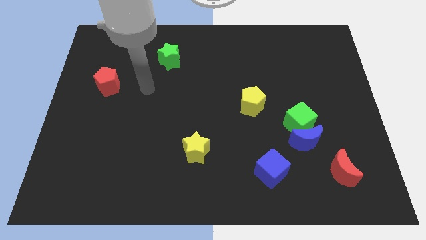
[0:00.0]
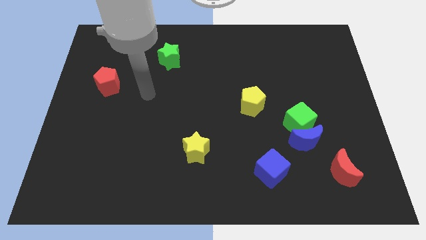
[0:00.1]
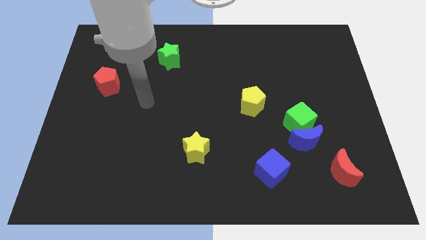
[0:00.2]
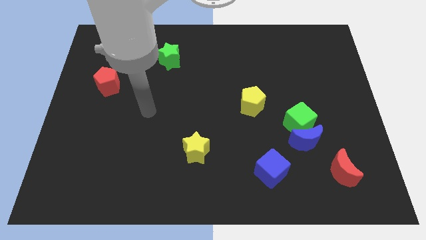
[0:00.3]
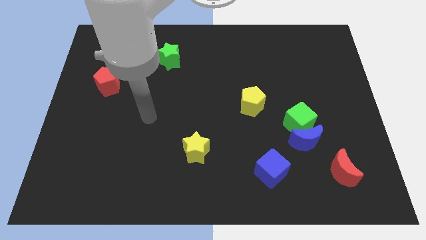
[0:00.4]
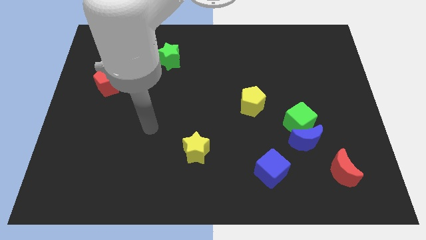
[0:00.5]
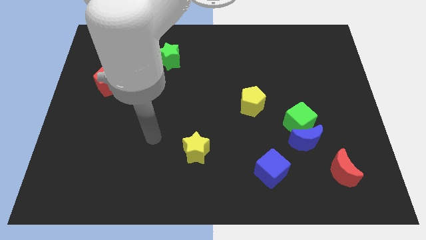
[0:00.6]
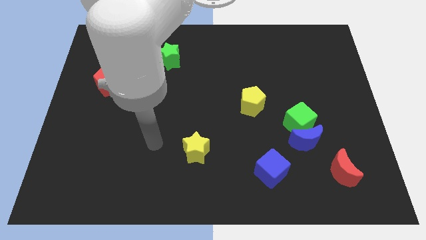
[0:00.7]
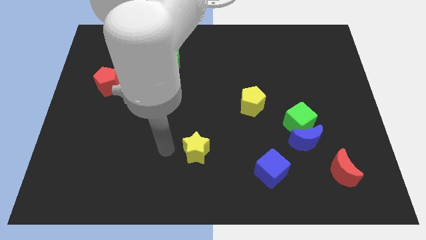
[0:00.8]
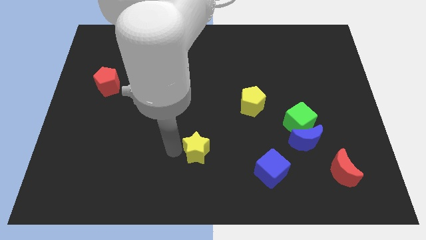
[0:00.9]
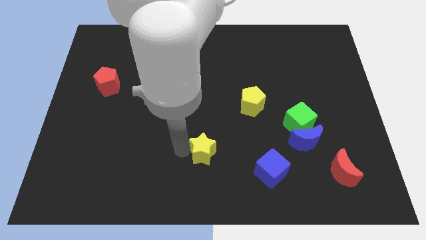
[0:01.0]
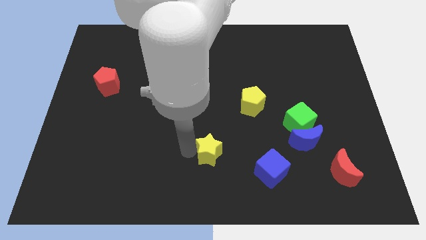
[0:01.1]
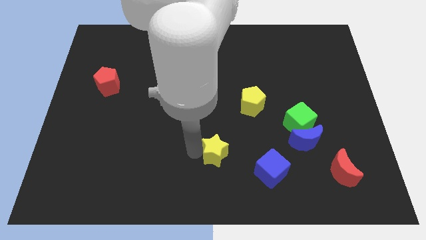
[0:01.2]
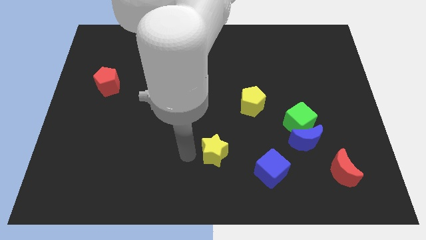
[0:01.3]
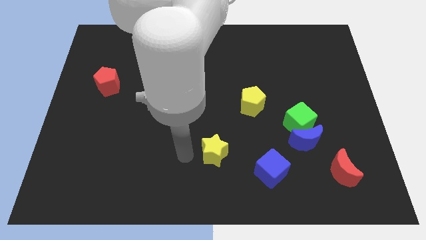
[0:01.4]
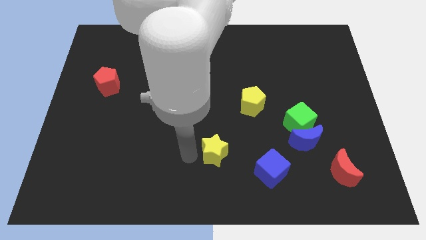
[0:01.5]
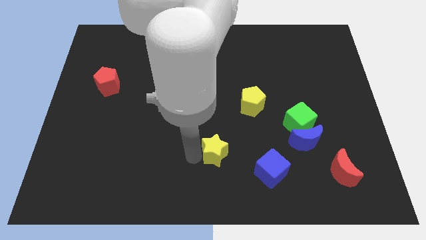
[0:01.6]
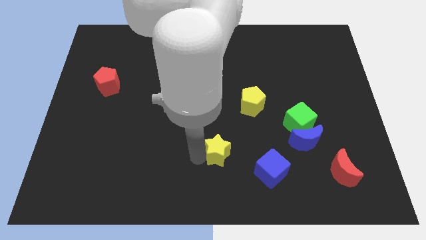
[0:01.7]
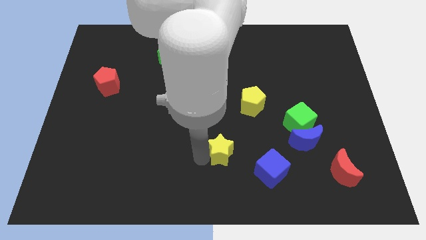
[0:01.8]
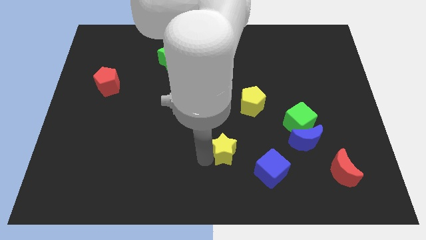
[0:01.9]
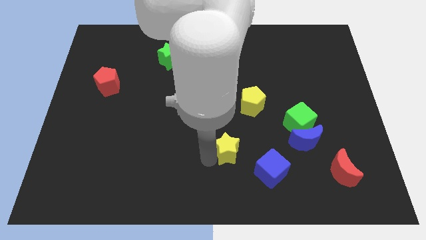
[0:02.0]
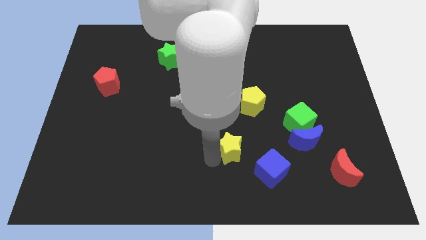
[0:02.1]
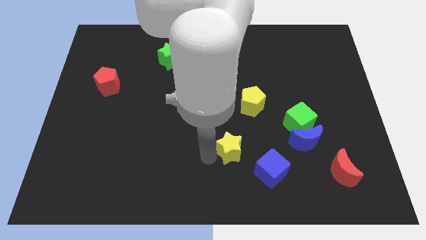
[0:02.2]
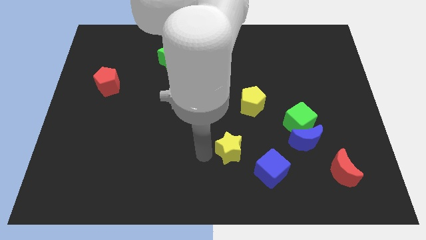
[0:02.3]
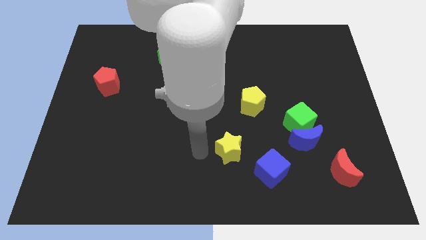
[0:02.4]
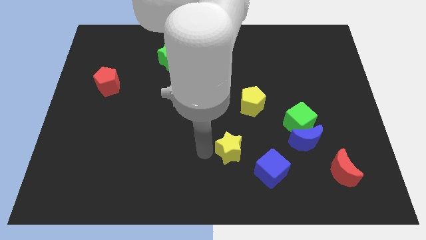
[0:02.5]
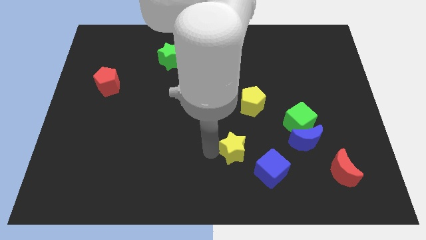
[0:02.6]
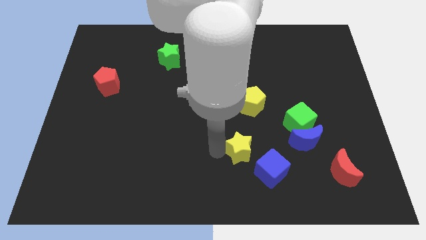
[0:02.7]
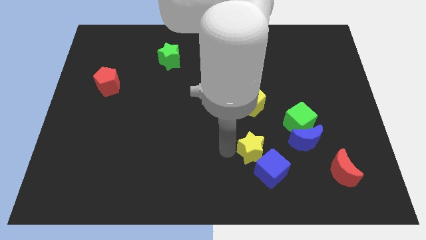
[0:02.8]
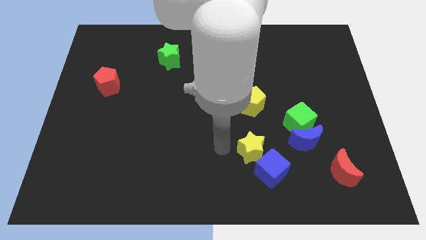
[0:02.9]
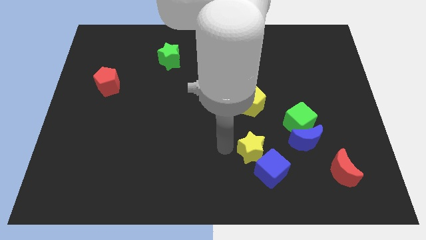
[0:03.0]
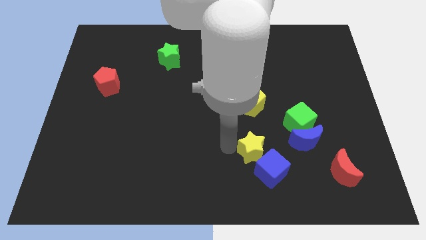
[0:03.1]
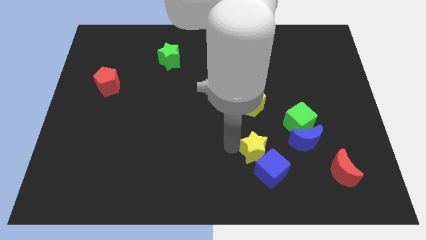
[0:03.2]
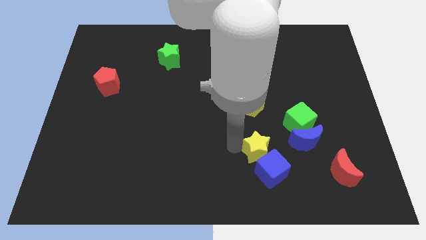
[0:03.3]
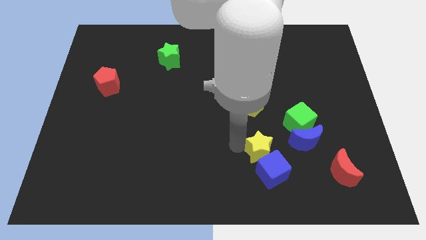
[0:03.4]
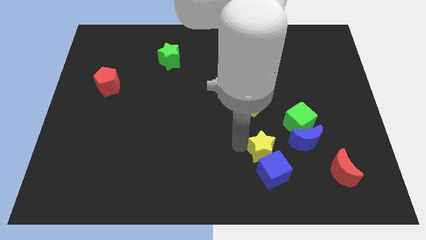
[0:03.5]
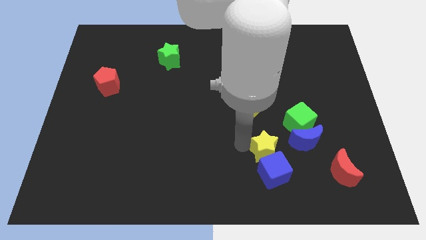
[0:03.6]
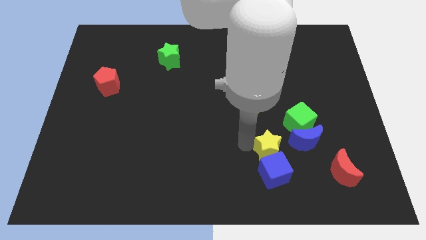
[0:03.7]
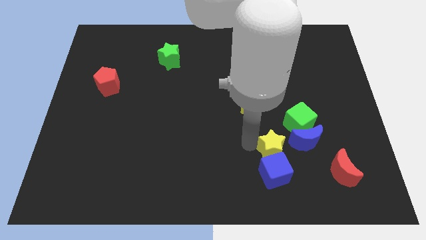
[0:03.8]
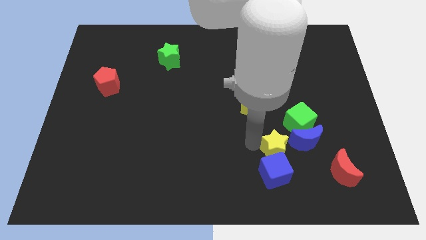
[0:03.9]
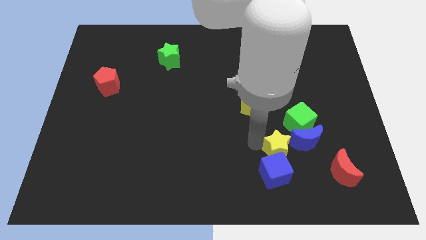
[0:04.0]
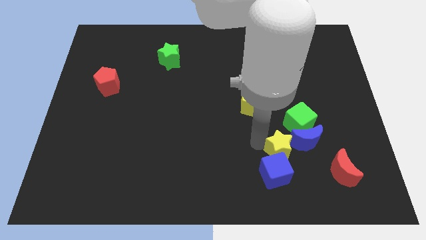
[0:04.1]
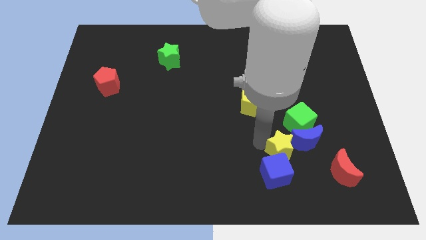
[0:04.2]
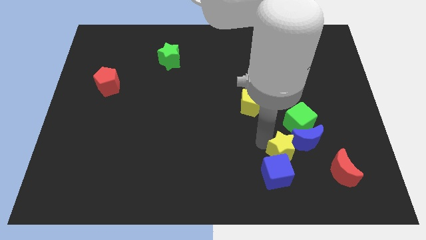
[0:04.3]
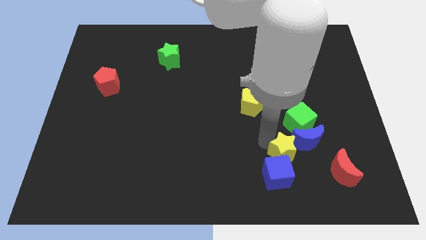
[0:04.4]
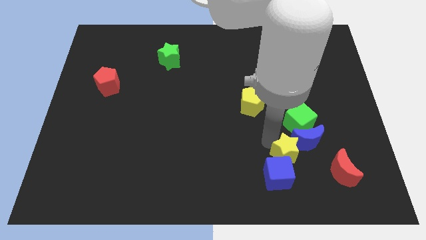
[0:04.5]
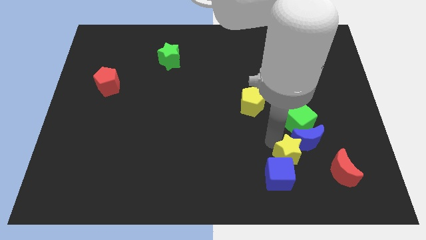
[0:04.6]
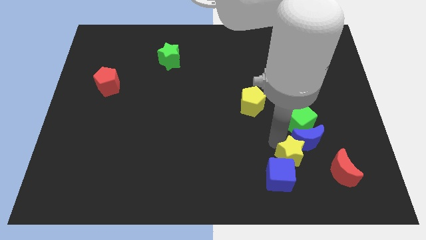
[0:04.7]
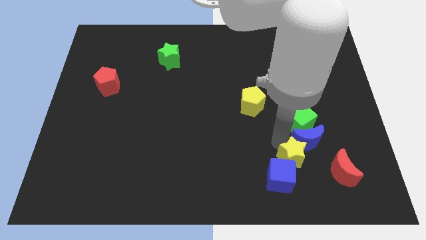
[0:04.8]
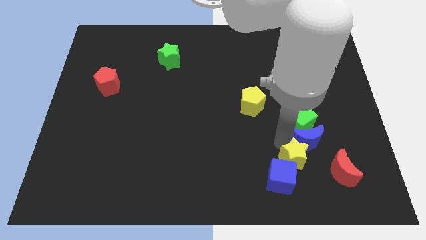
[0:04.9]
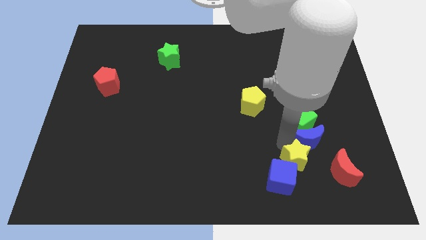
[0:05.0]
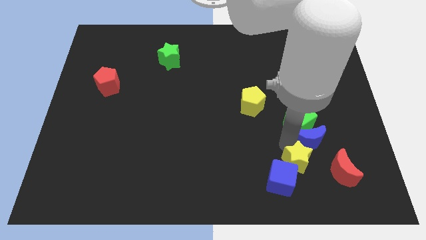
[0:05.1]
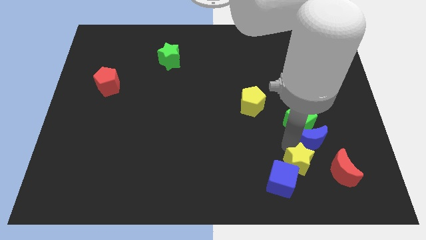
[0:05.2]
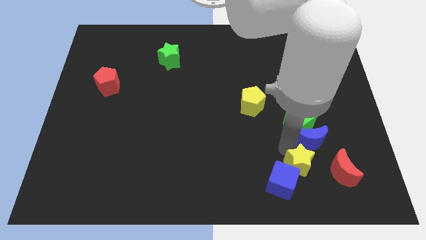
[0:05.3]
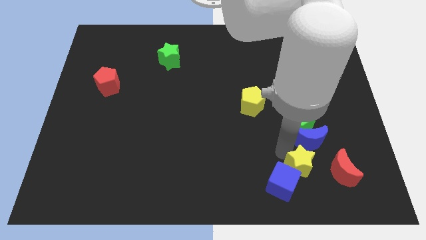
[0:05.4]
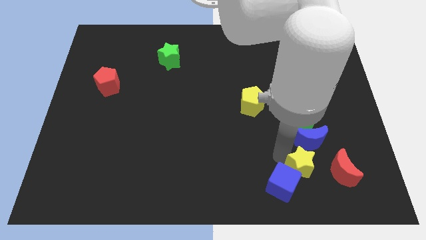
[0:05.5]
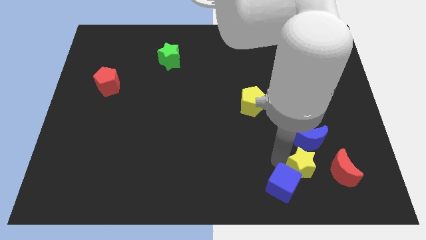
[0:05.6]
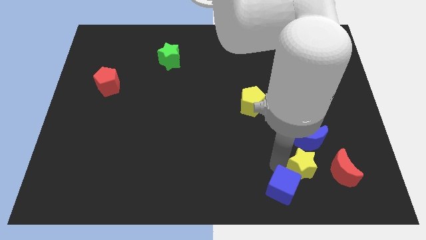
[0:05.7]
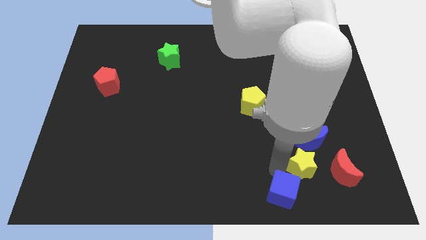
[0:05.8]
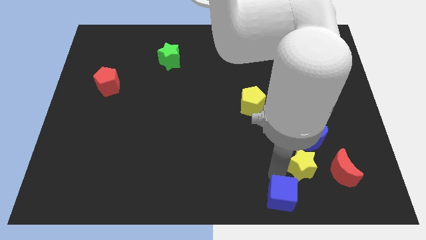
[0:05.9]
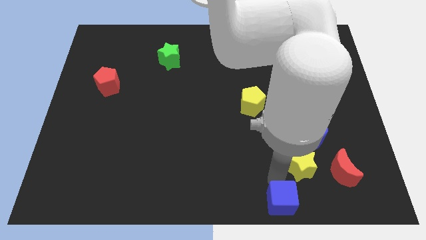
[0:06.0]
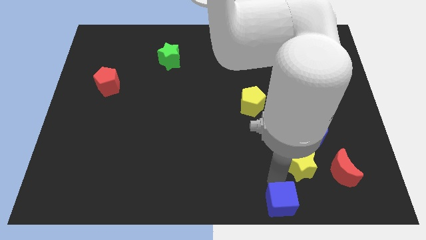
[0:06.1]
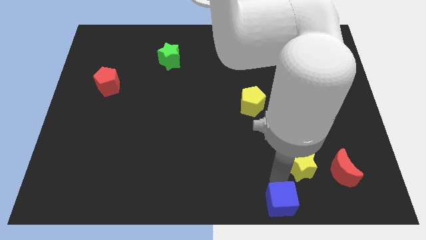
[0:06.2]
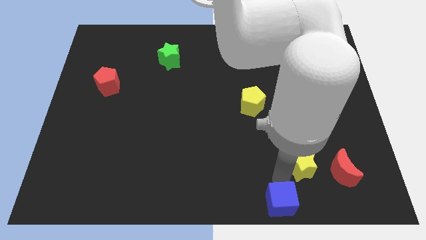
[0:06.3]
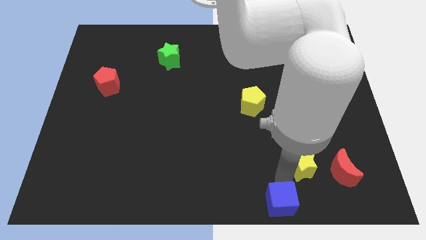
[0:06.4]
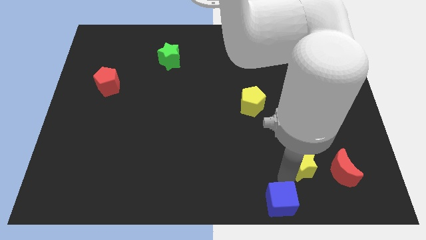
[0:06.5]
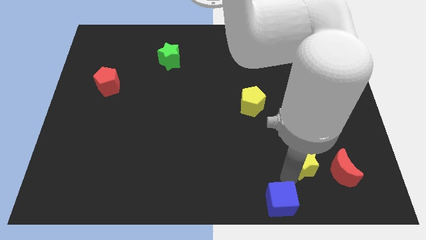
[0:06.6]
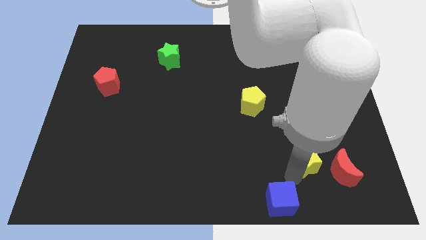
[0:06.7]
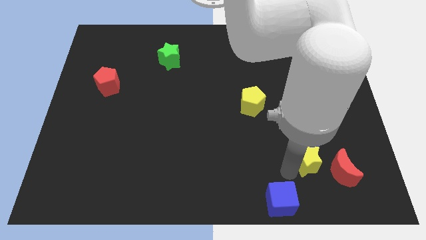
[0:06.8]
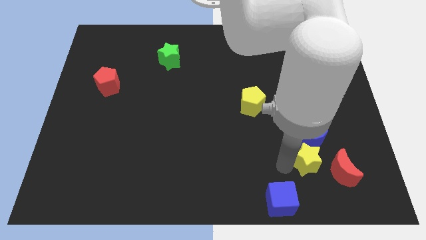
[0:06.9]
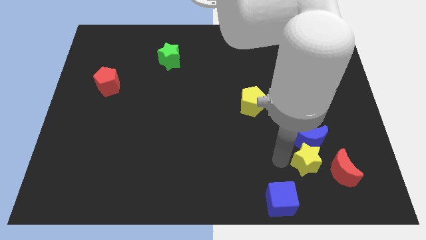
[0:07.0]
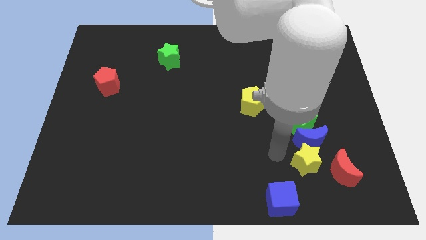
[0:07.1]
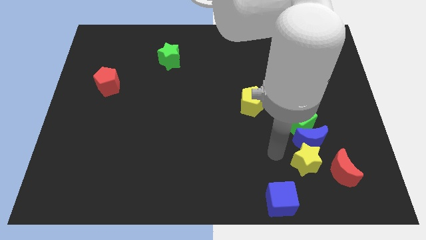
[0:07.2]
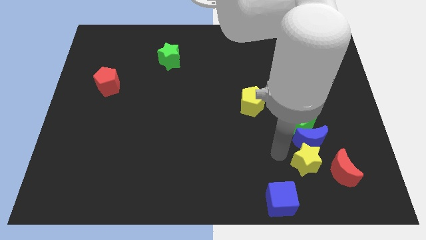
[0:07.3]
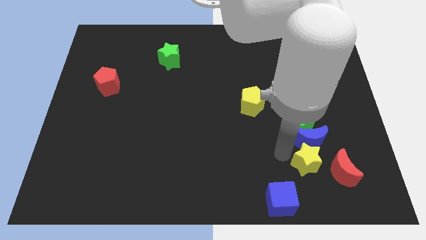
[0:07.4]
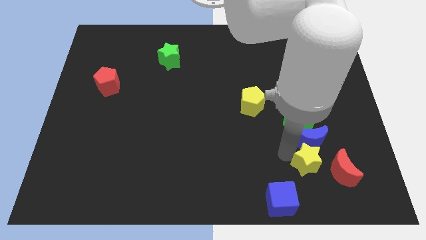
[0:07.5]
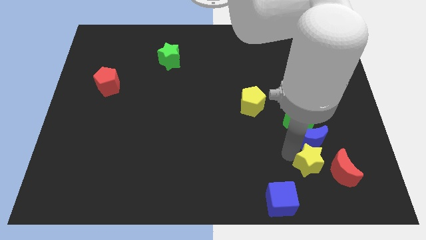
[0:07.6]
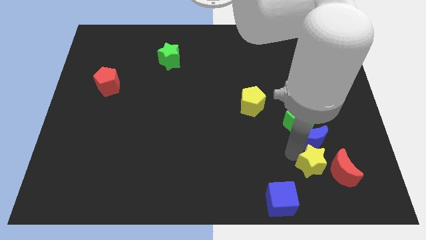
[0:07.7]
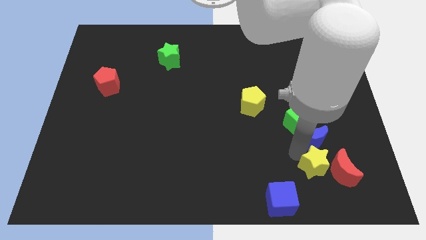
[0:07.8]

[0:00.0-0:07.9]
slide the yellow star close to the red moon
